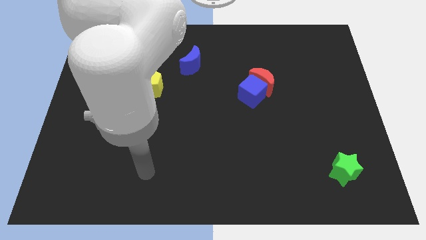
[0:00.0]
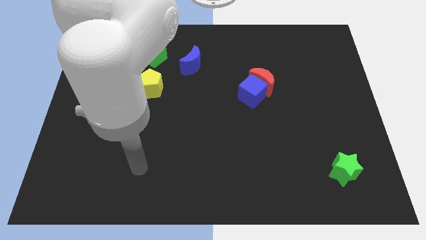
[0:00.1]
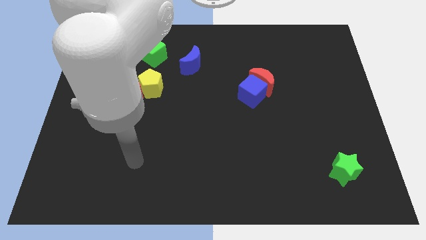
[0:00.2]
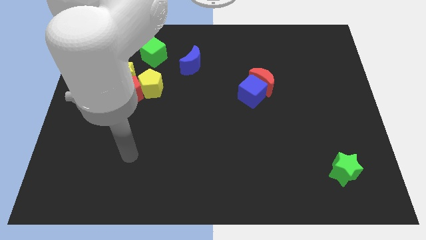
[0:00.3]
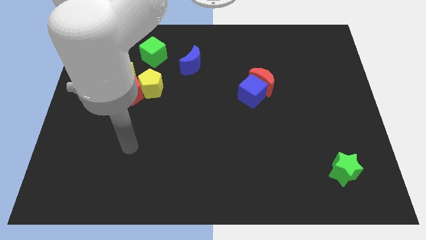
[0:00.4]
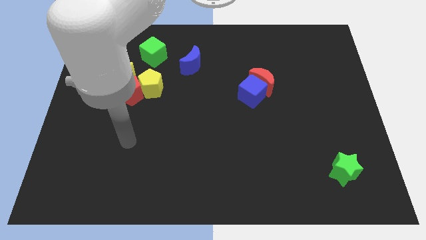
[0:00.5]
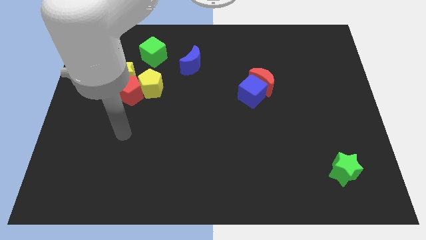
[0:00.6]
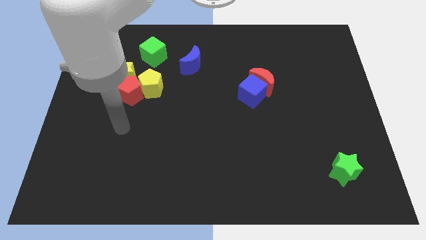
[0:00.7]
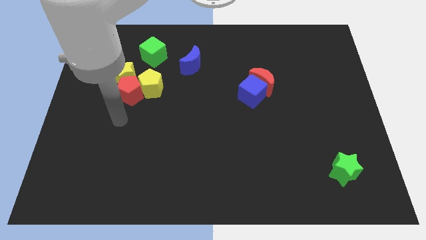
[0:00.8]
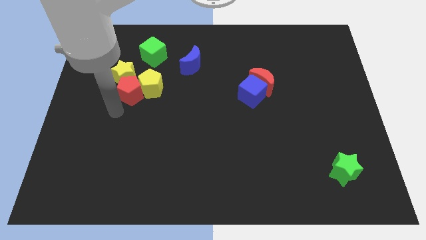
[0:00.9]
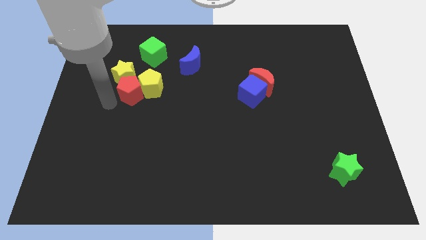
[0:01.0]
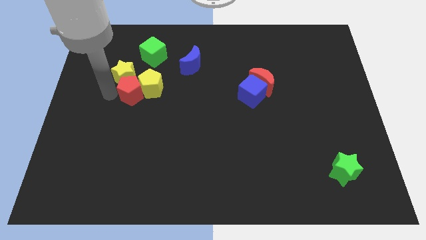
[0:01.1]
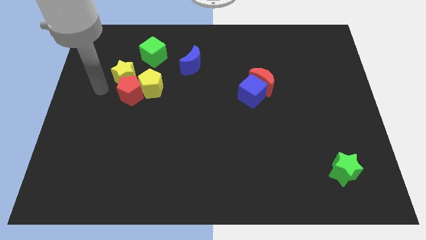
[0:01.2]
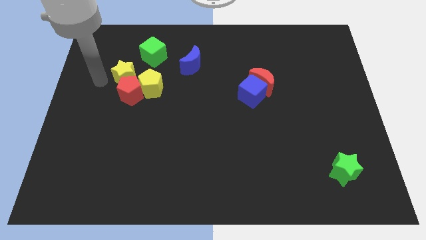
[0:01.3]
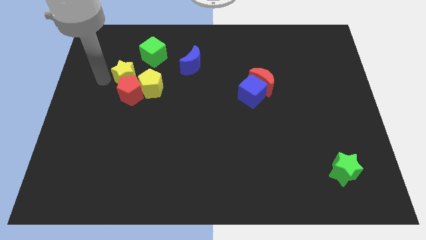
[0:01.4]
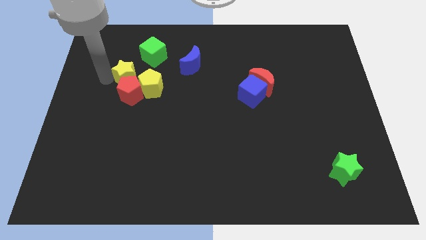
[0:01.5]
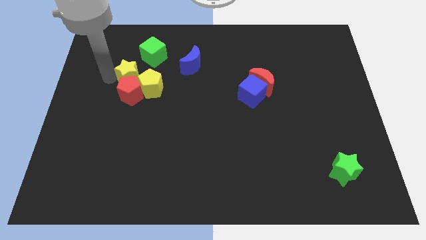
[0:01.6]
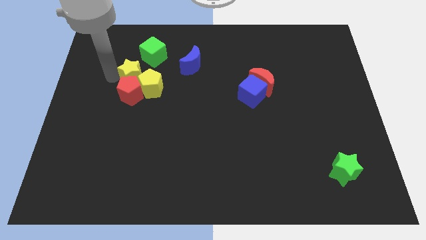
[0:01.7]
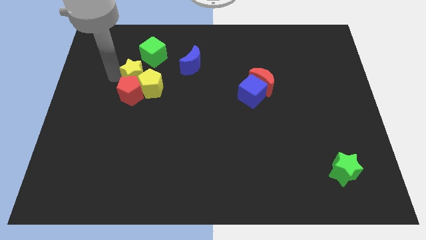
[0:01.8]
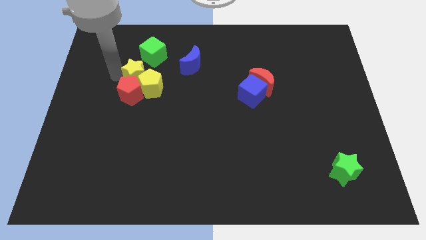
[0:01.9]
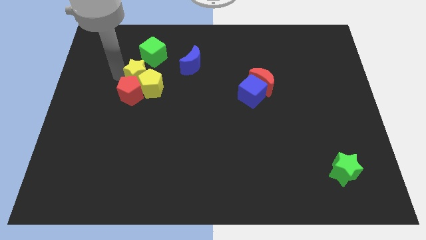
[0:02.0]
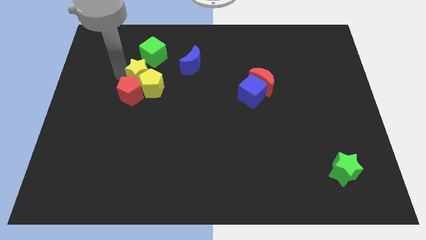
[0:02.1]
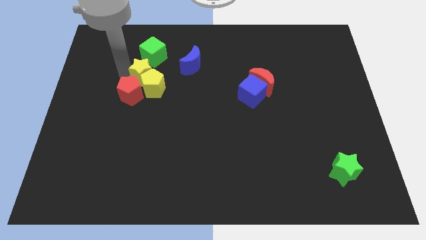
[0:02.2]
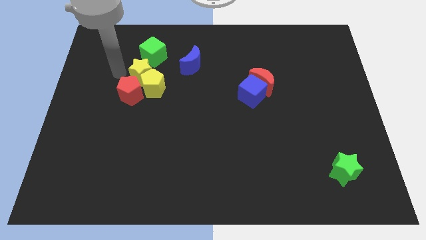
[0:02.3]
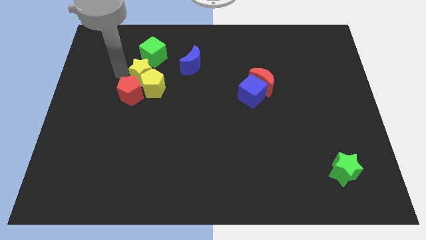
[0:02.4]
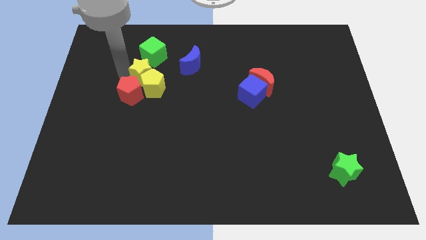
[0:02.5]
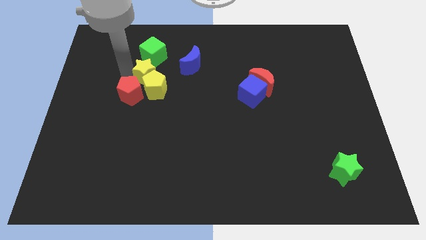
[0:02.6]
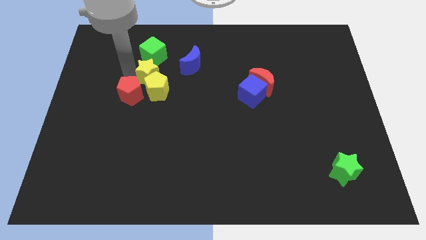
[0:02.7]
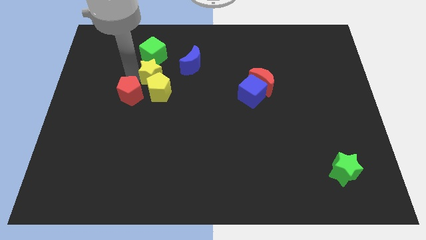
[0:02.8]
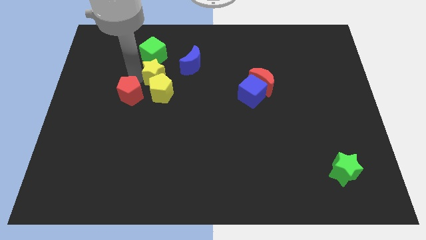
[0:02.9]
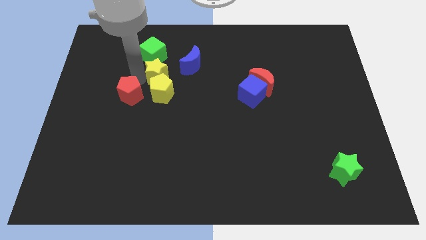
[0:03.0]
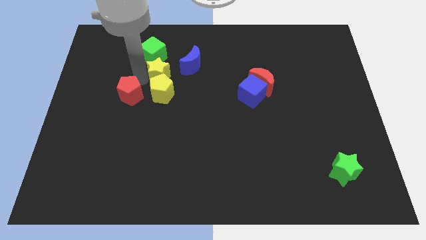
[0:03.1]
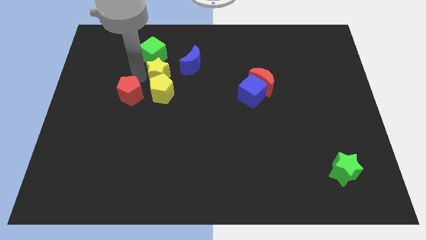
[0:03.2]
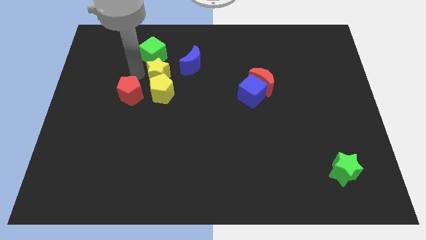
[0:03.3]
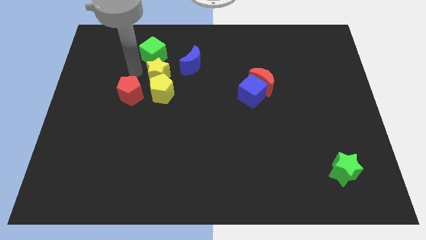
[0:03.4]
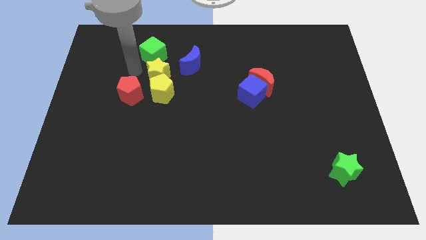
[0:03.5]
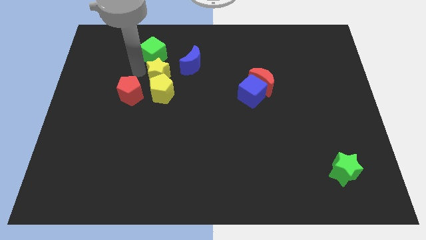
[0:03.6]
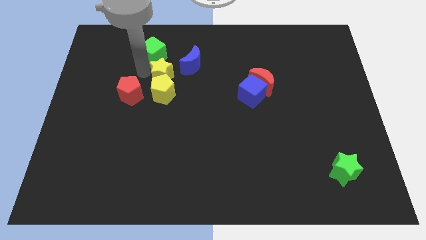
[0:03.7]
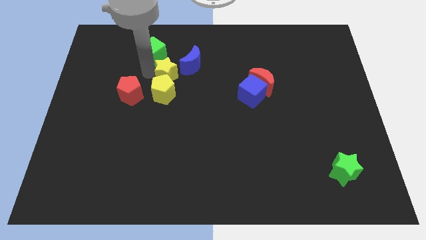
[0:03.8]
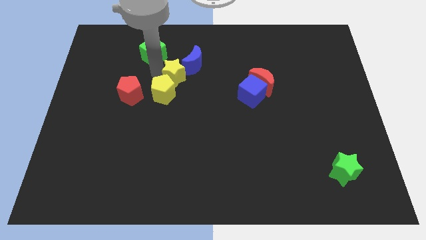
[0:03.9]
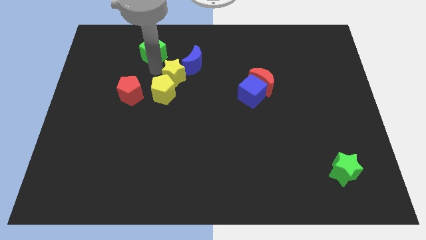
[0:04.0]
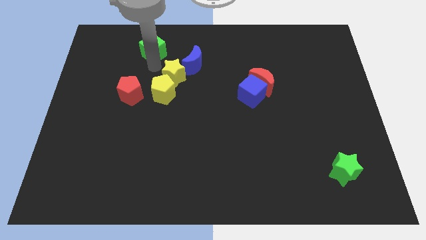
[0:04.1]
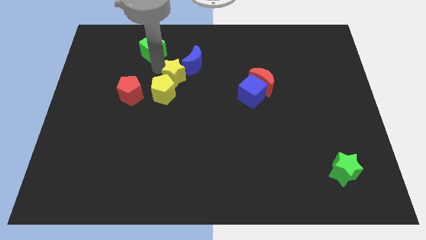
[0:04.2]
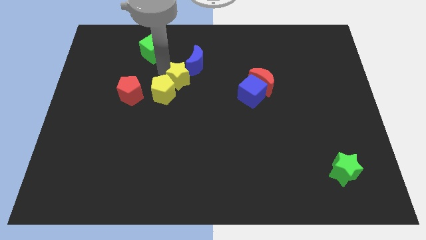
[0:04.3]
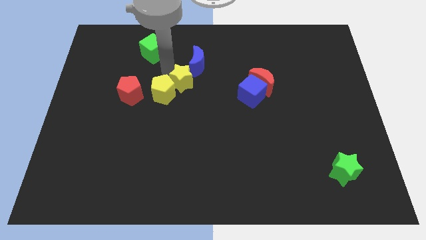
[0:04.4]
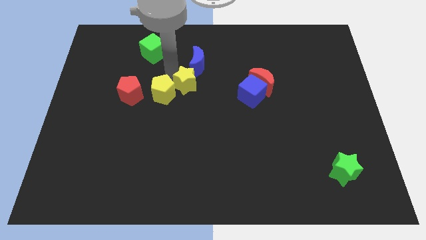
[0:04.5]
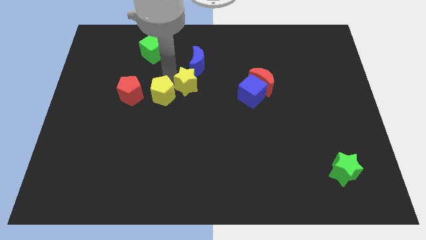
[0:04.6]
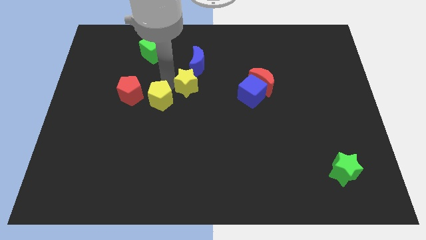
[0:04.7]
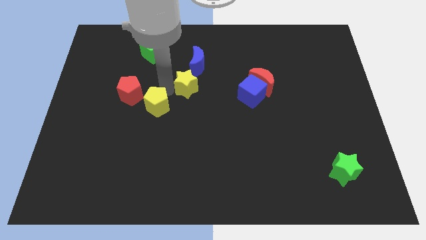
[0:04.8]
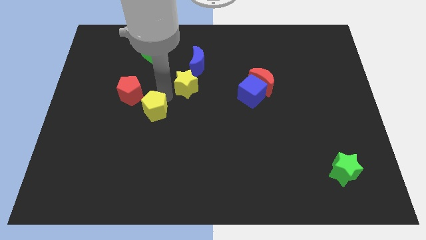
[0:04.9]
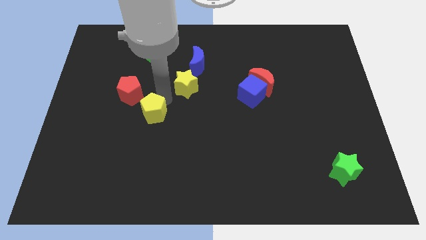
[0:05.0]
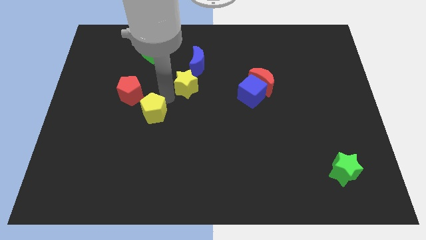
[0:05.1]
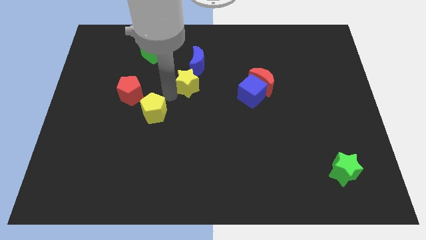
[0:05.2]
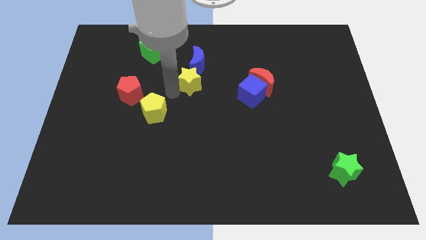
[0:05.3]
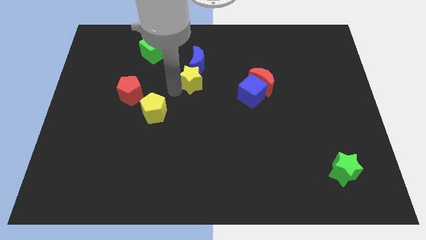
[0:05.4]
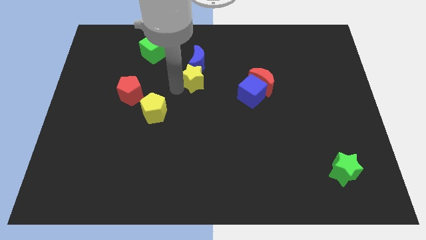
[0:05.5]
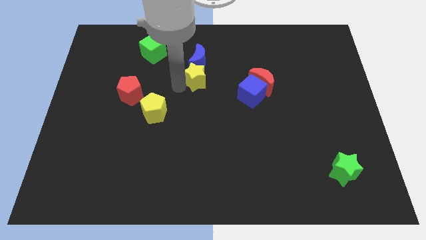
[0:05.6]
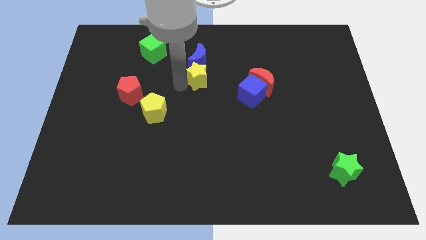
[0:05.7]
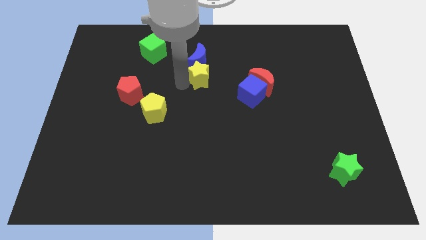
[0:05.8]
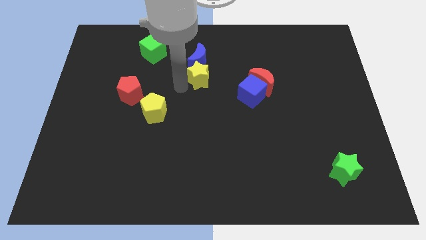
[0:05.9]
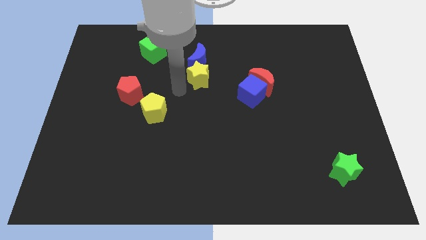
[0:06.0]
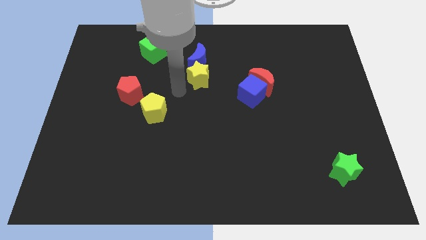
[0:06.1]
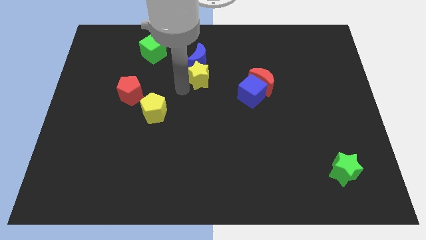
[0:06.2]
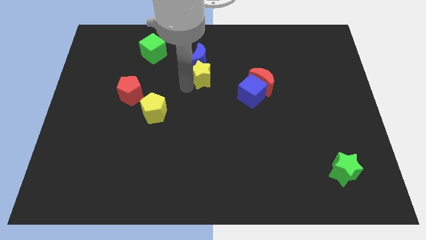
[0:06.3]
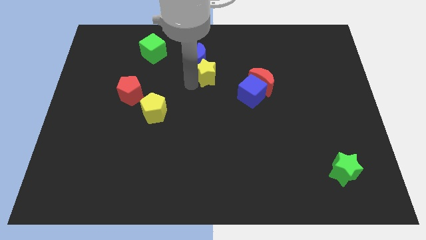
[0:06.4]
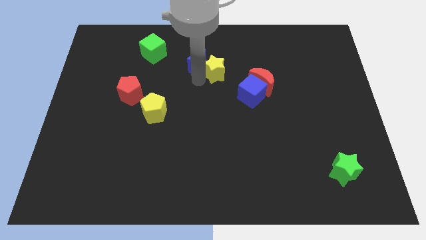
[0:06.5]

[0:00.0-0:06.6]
move the yellow star to the right of the blue moon
